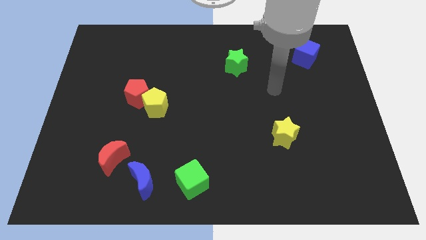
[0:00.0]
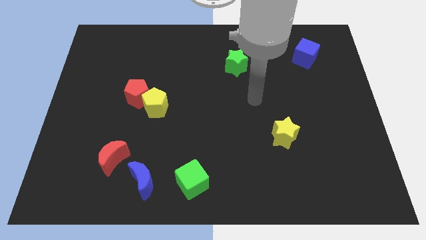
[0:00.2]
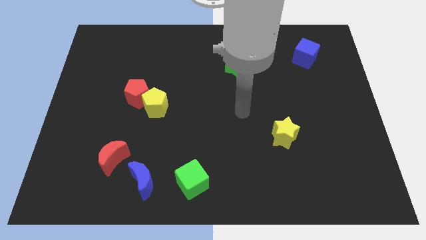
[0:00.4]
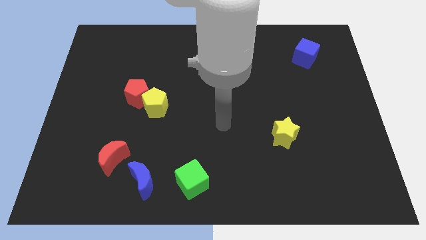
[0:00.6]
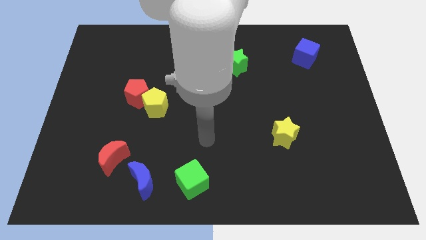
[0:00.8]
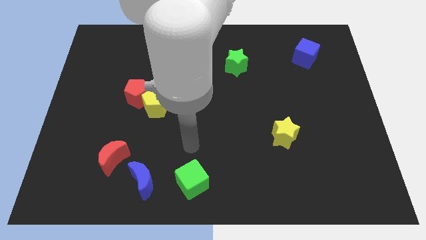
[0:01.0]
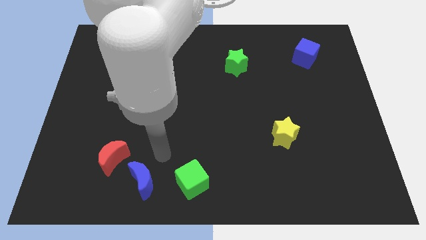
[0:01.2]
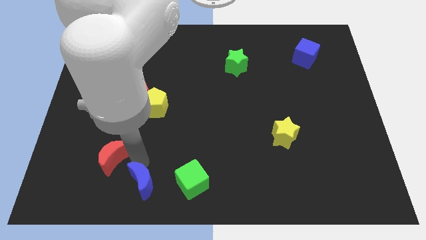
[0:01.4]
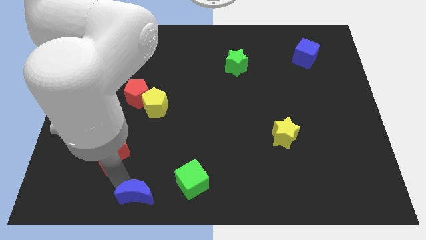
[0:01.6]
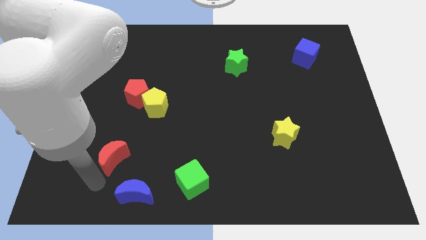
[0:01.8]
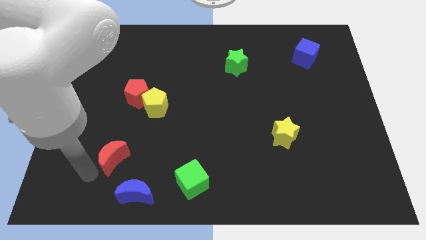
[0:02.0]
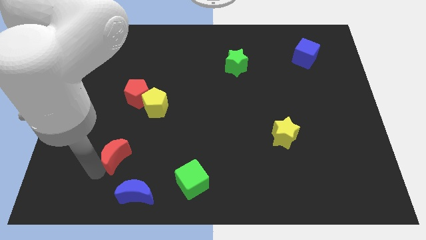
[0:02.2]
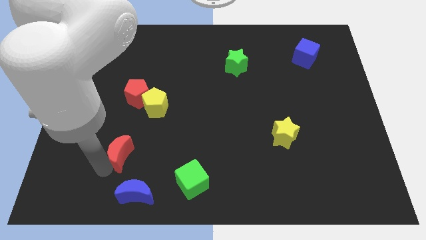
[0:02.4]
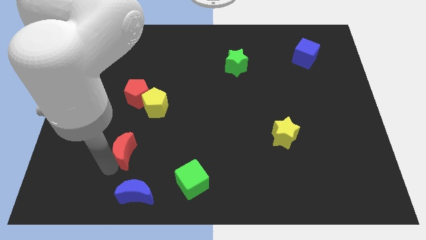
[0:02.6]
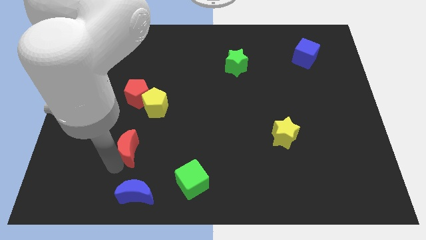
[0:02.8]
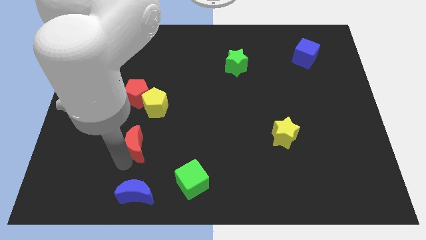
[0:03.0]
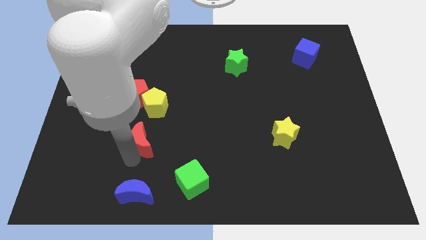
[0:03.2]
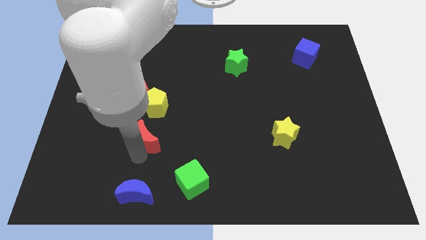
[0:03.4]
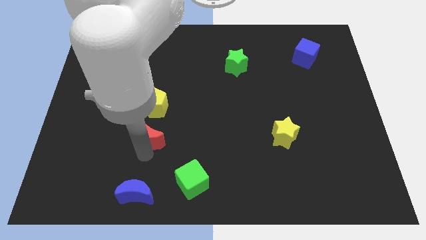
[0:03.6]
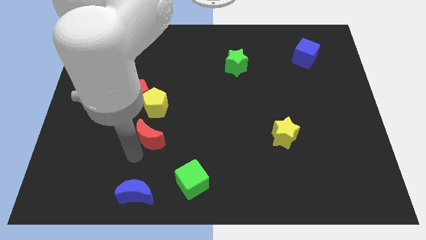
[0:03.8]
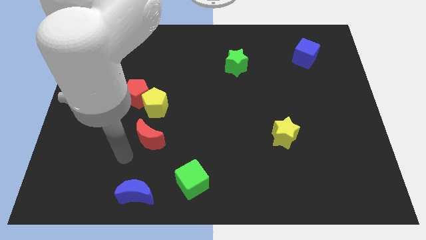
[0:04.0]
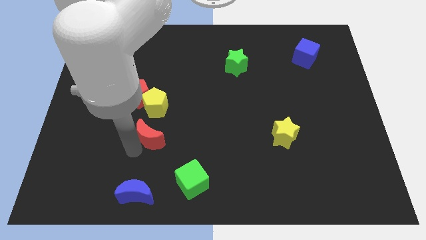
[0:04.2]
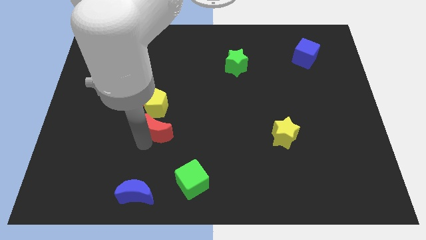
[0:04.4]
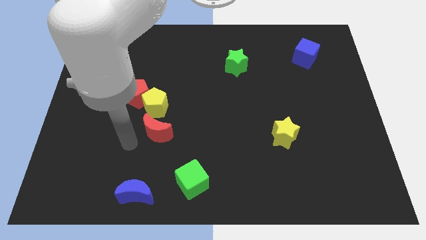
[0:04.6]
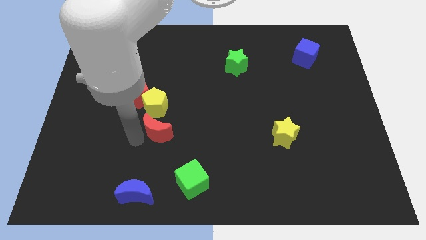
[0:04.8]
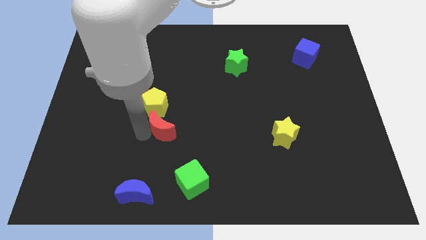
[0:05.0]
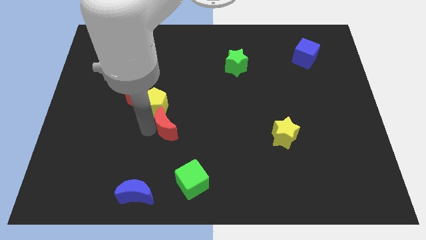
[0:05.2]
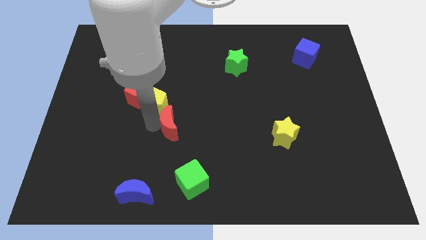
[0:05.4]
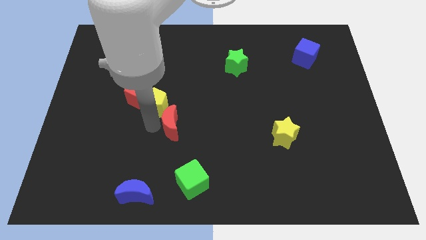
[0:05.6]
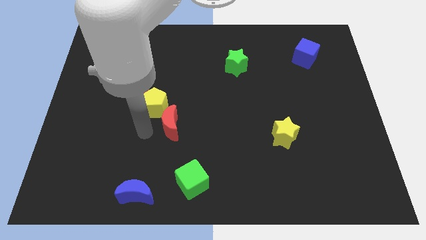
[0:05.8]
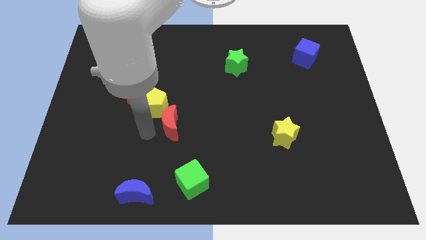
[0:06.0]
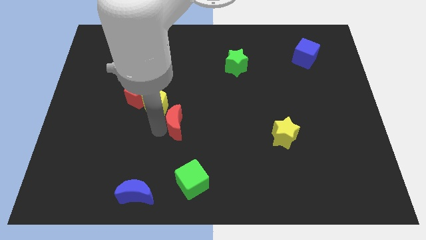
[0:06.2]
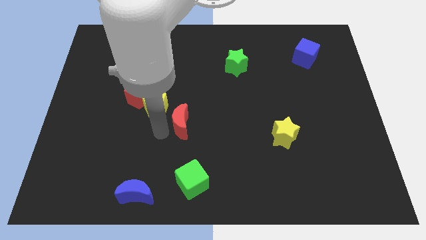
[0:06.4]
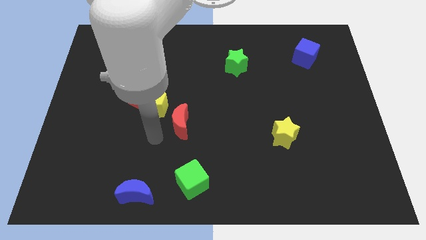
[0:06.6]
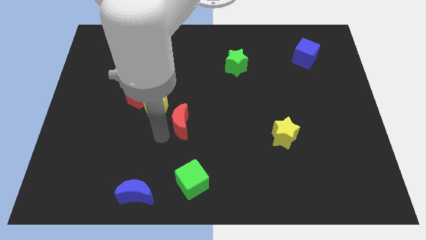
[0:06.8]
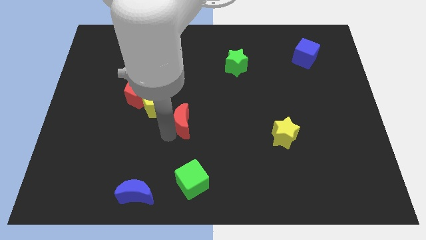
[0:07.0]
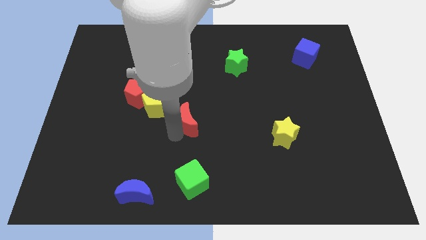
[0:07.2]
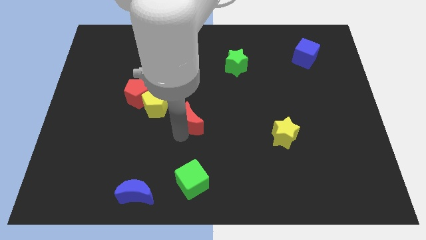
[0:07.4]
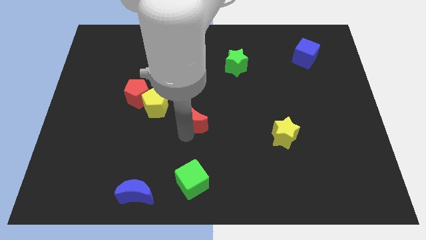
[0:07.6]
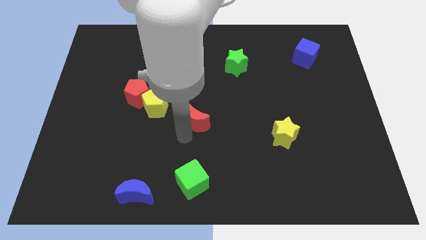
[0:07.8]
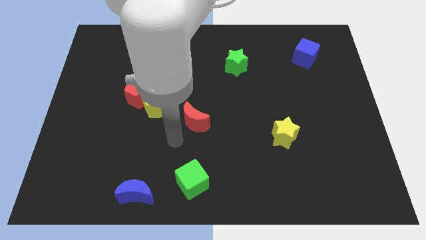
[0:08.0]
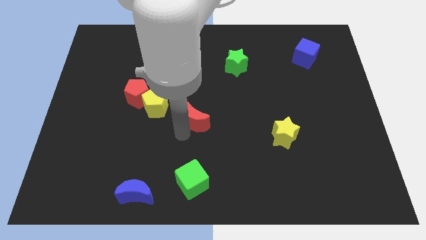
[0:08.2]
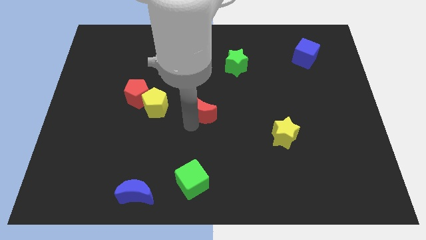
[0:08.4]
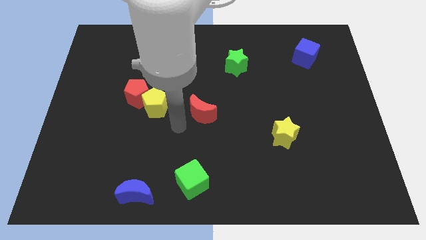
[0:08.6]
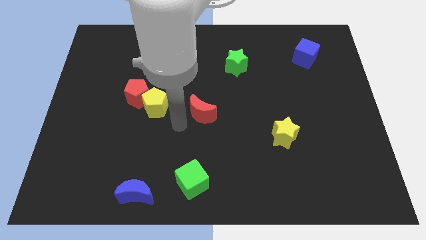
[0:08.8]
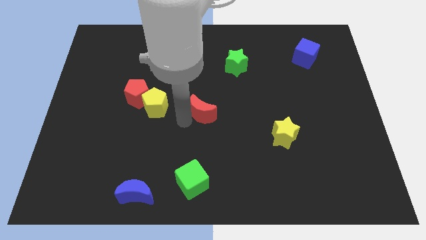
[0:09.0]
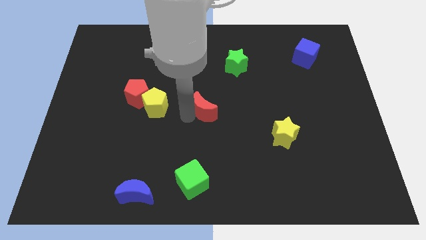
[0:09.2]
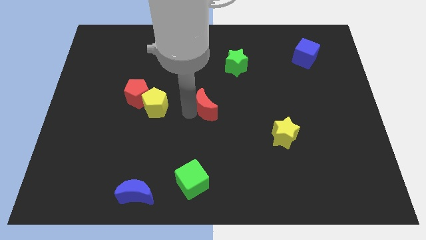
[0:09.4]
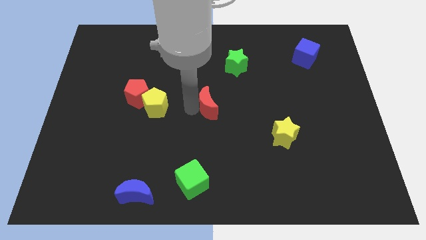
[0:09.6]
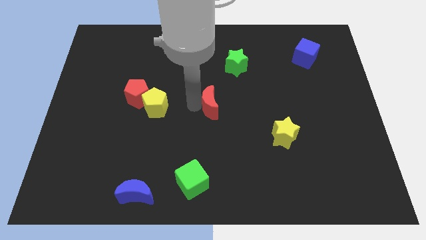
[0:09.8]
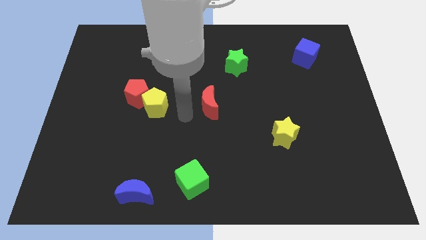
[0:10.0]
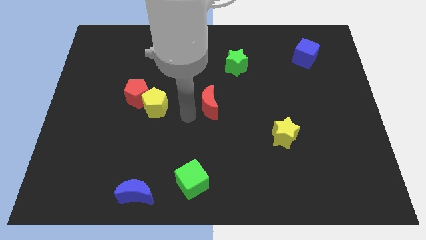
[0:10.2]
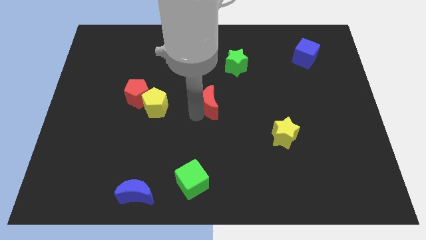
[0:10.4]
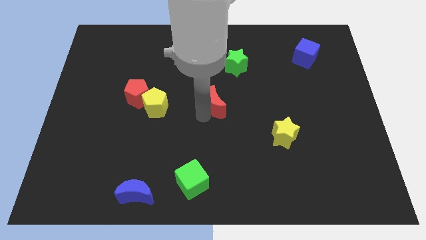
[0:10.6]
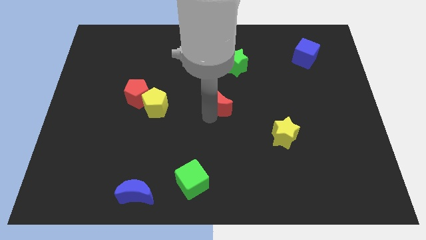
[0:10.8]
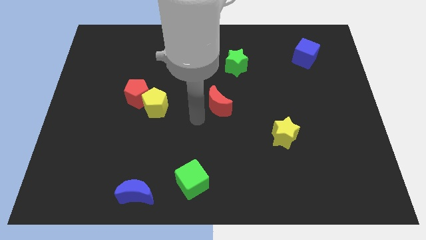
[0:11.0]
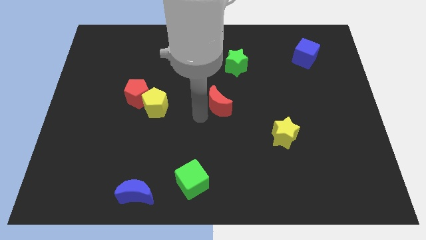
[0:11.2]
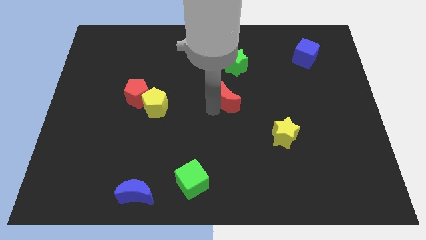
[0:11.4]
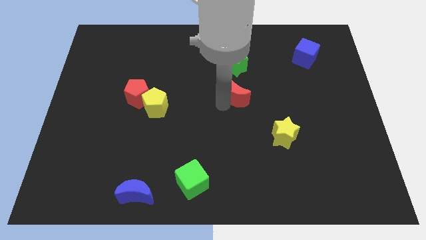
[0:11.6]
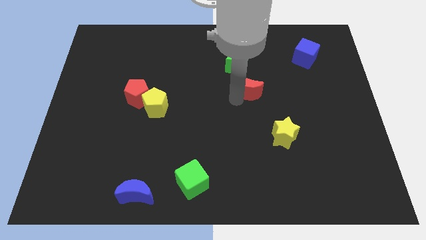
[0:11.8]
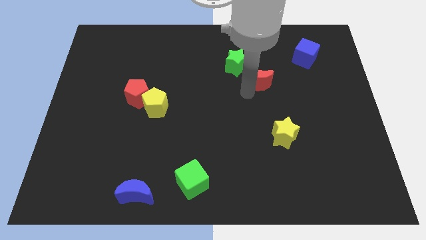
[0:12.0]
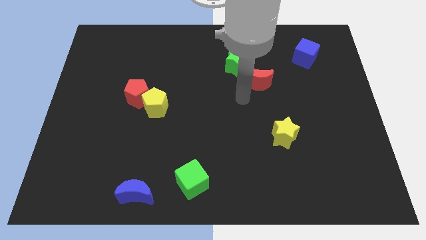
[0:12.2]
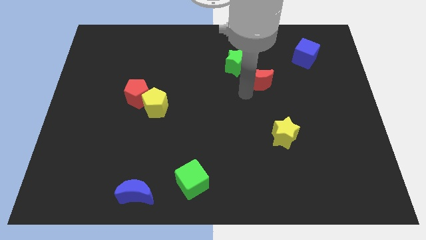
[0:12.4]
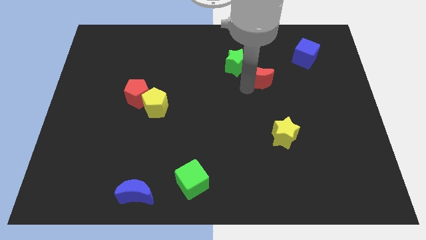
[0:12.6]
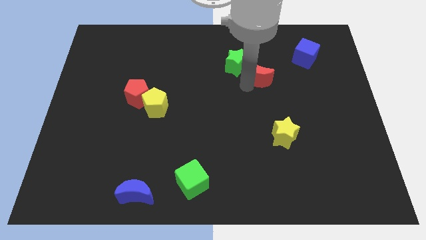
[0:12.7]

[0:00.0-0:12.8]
slide the red moon right of the green star

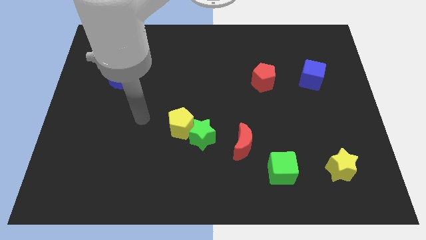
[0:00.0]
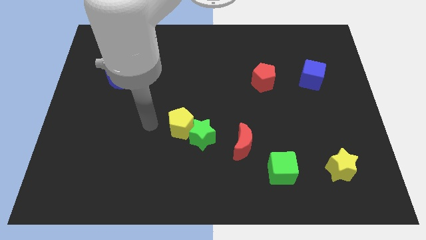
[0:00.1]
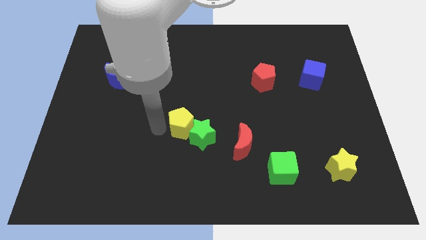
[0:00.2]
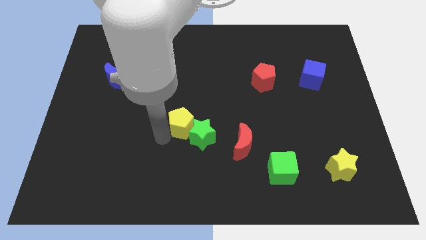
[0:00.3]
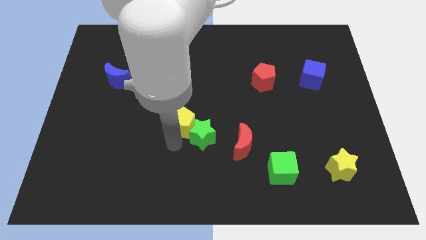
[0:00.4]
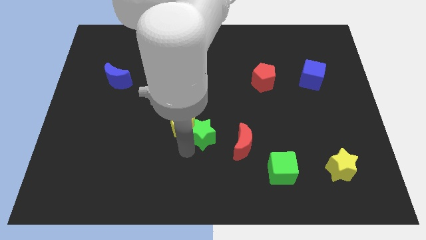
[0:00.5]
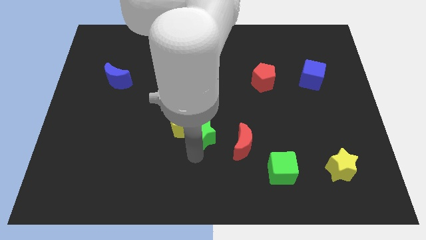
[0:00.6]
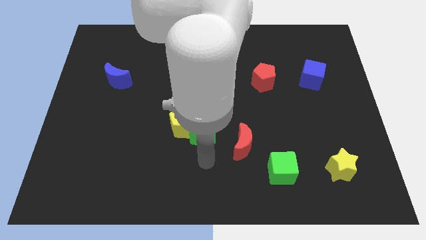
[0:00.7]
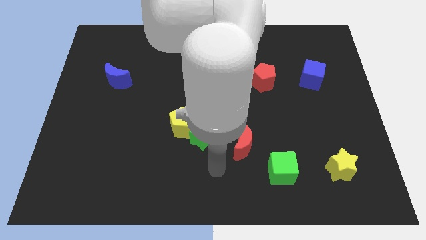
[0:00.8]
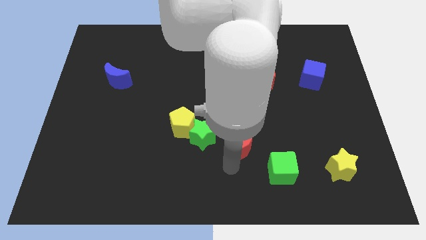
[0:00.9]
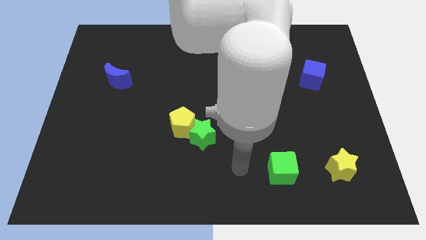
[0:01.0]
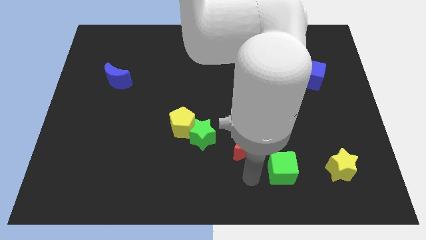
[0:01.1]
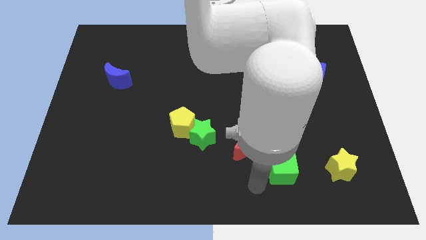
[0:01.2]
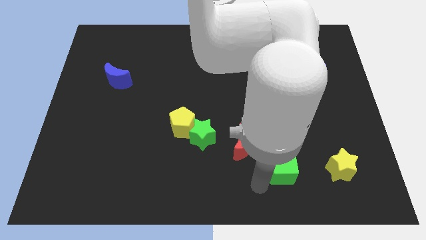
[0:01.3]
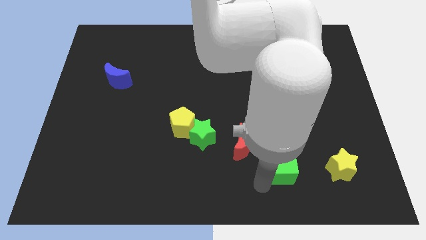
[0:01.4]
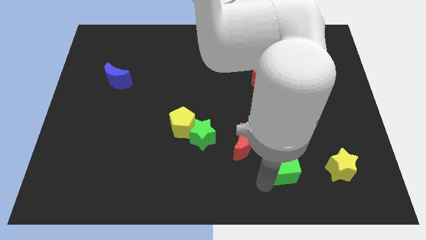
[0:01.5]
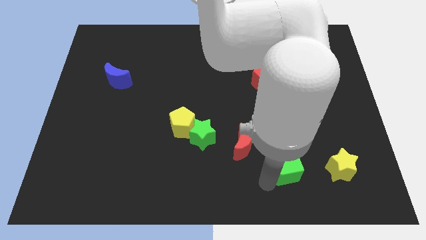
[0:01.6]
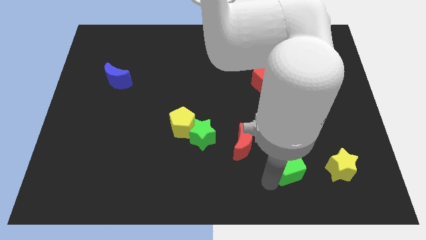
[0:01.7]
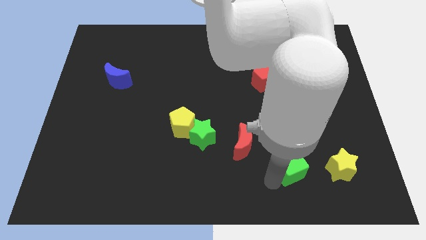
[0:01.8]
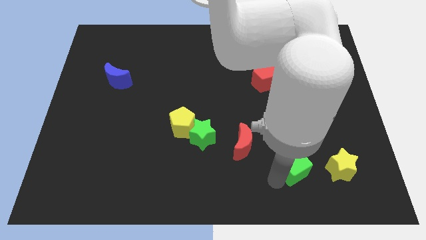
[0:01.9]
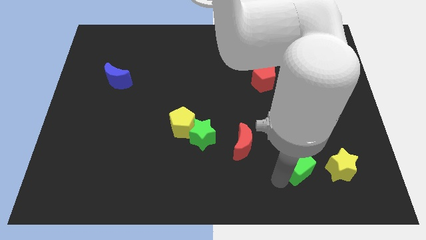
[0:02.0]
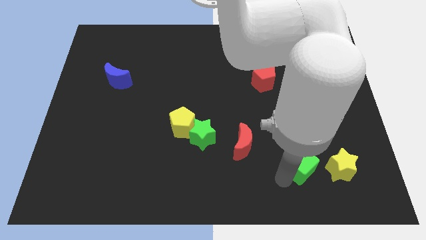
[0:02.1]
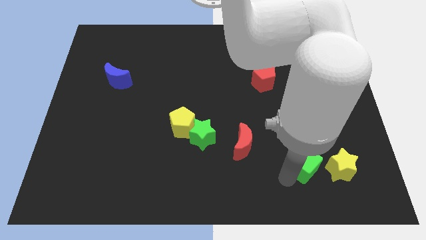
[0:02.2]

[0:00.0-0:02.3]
slide the green cube to the top left of the yellow star
